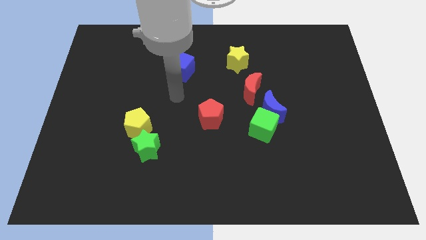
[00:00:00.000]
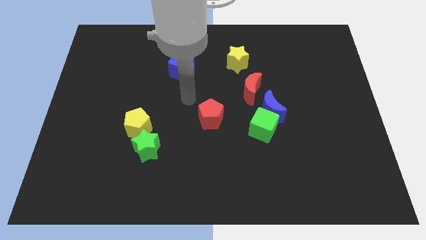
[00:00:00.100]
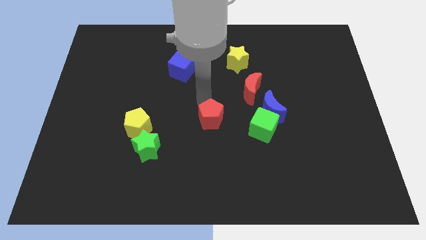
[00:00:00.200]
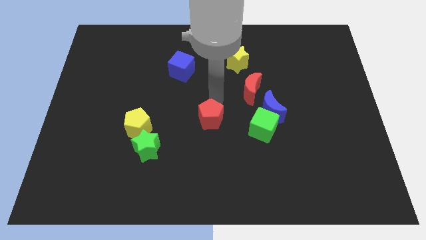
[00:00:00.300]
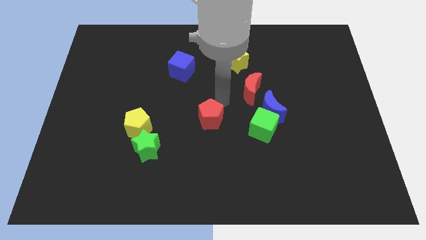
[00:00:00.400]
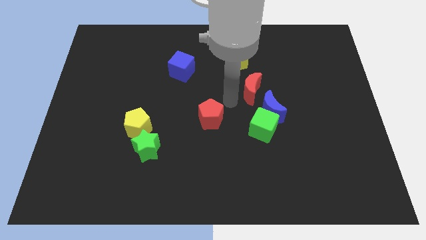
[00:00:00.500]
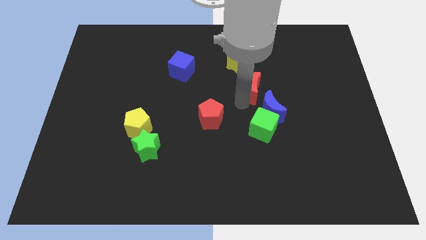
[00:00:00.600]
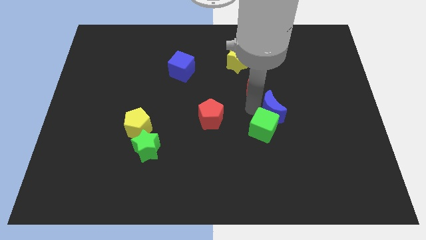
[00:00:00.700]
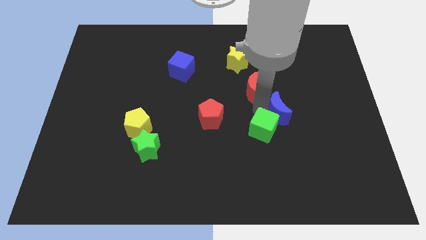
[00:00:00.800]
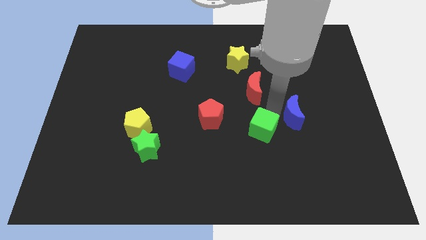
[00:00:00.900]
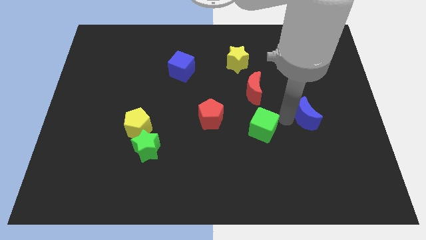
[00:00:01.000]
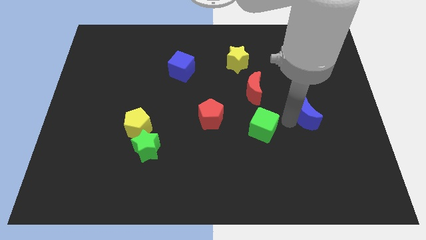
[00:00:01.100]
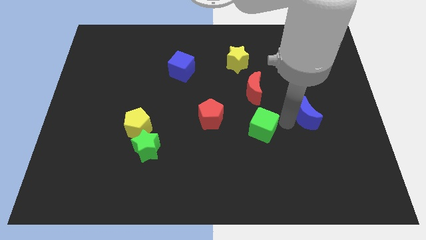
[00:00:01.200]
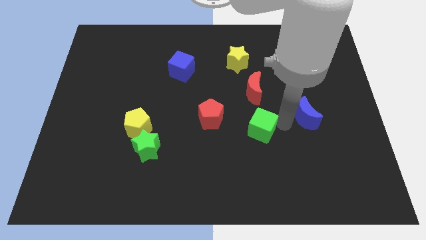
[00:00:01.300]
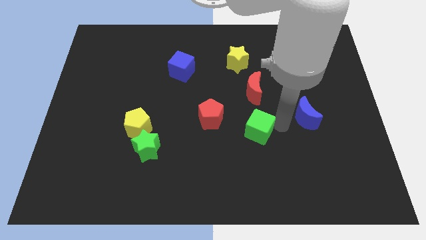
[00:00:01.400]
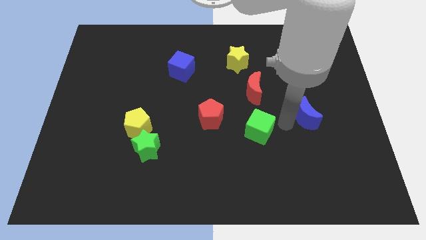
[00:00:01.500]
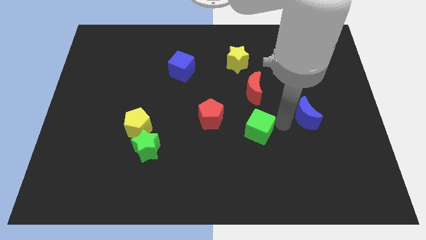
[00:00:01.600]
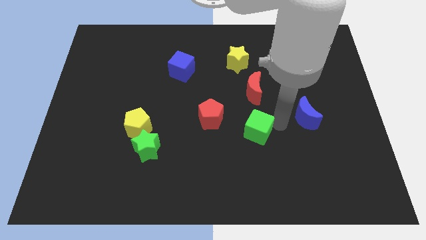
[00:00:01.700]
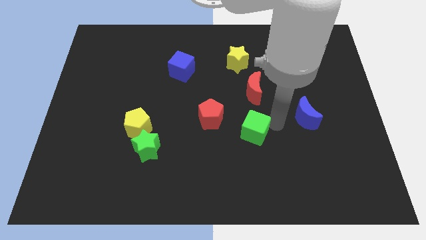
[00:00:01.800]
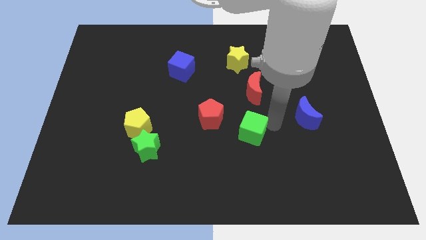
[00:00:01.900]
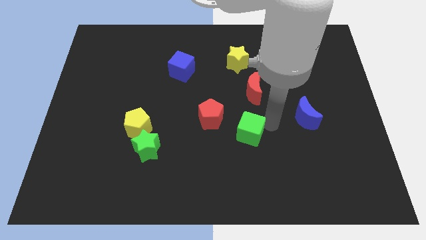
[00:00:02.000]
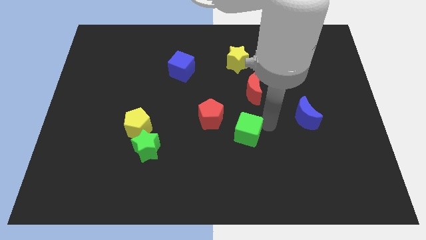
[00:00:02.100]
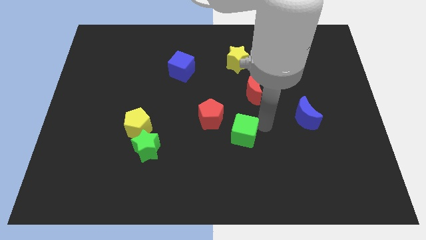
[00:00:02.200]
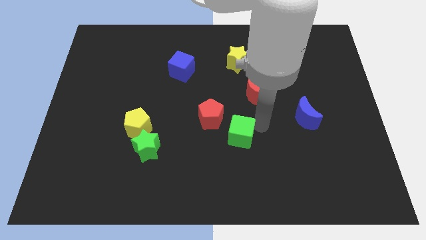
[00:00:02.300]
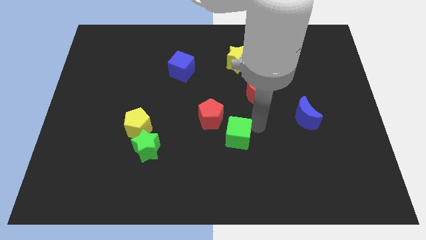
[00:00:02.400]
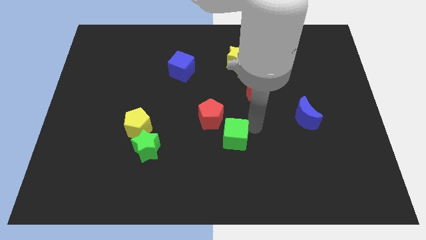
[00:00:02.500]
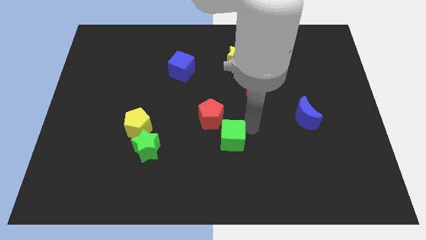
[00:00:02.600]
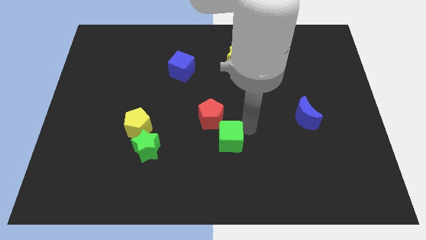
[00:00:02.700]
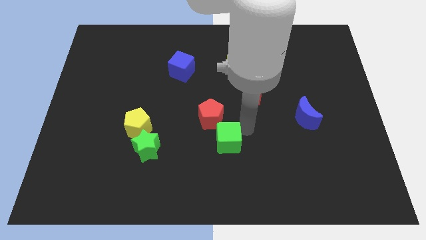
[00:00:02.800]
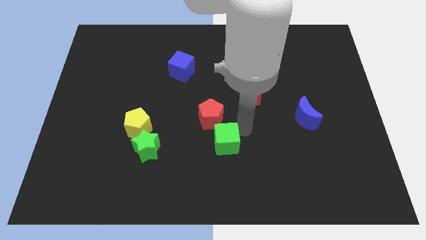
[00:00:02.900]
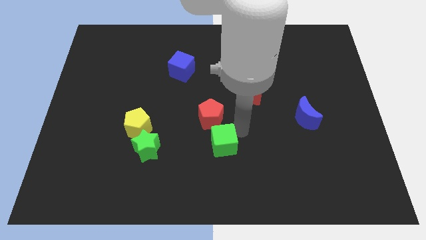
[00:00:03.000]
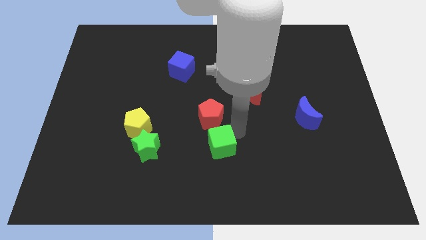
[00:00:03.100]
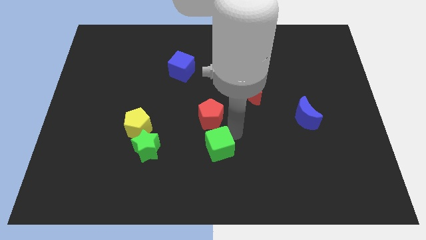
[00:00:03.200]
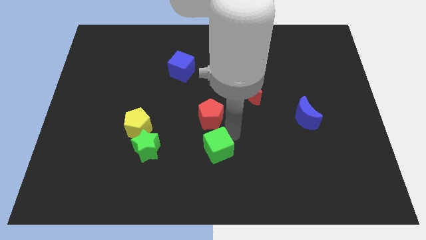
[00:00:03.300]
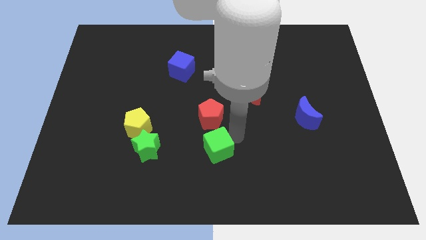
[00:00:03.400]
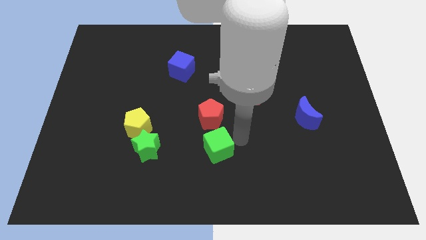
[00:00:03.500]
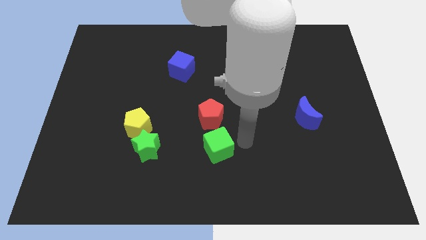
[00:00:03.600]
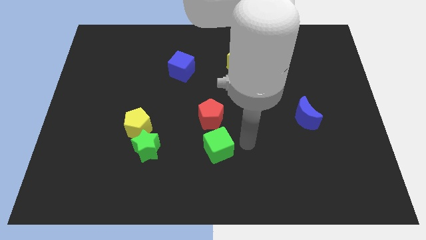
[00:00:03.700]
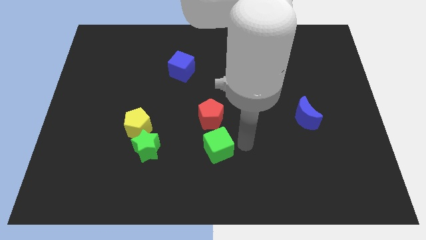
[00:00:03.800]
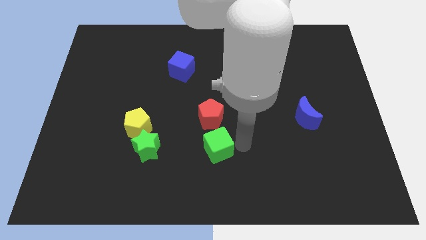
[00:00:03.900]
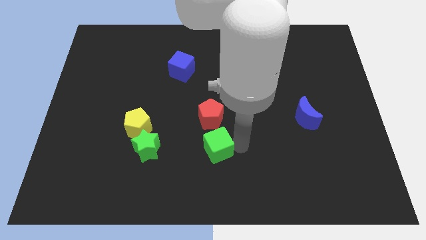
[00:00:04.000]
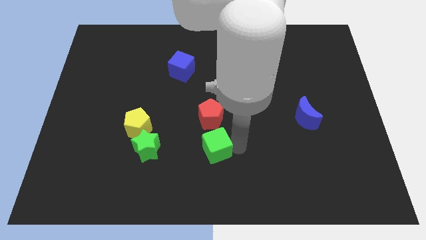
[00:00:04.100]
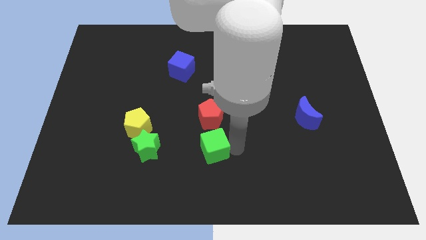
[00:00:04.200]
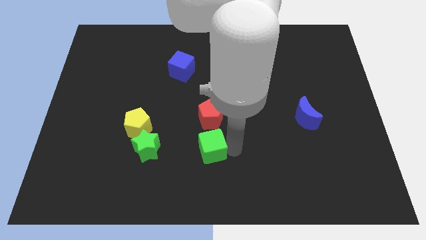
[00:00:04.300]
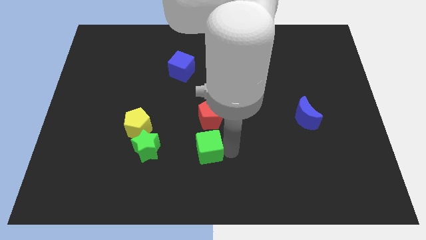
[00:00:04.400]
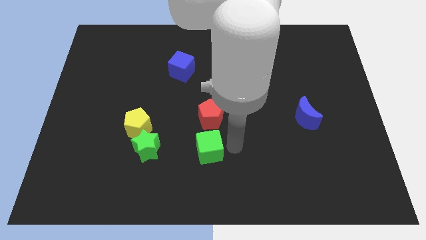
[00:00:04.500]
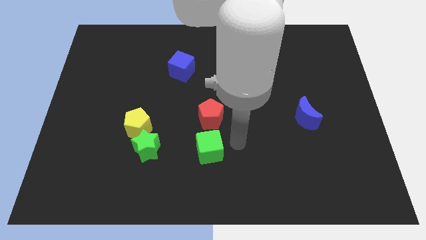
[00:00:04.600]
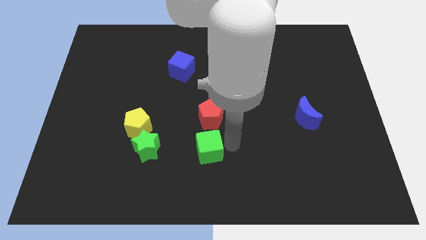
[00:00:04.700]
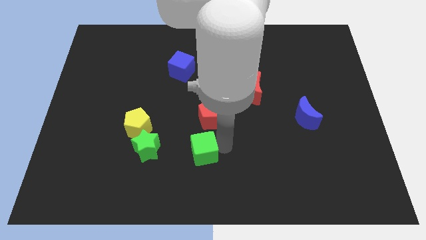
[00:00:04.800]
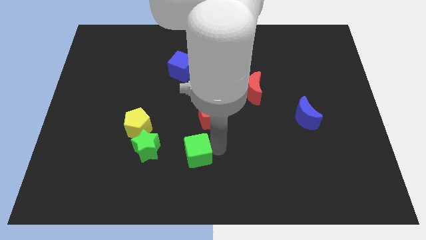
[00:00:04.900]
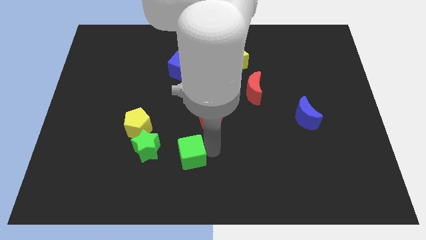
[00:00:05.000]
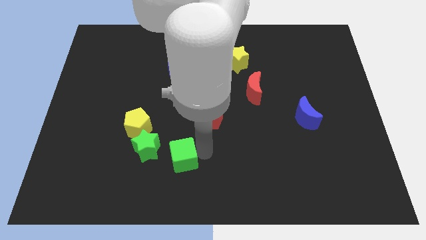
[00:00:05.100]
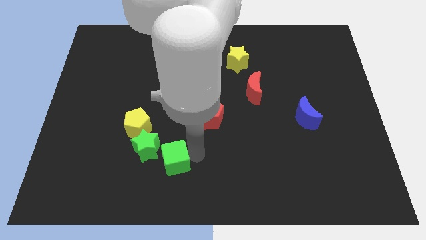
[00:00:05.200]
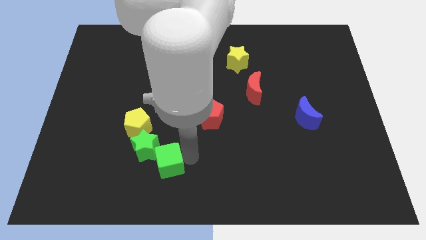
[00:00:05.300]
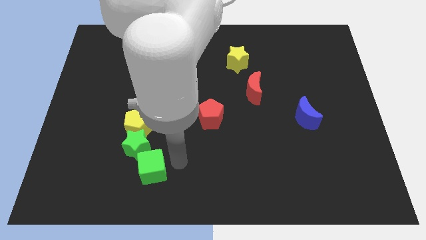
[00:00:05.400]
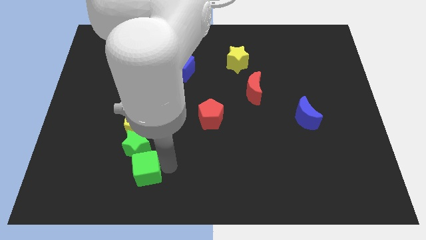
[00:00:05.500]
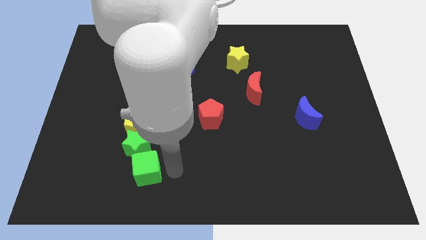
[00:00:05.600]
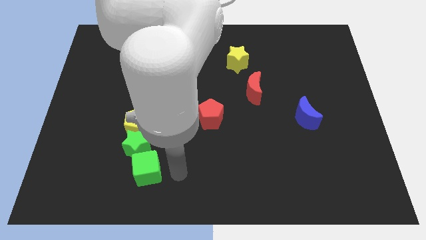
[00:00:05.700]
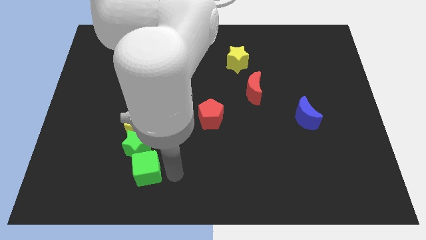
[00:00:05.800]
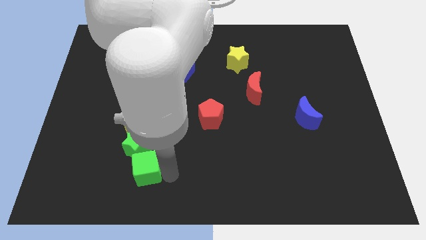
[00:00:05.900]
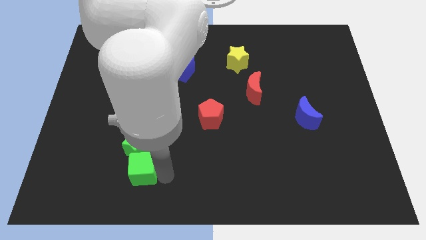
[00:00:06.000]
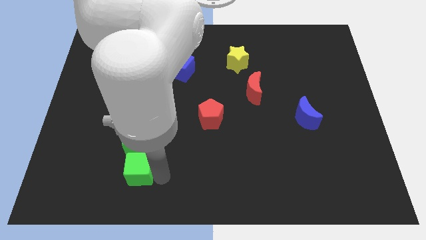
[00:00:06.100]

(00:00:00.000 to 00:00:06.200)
push the green cube diagonally down and to the left of the green star

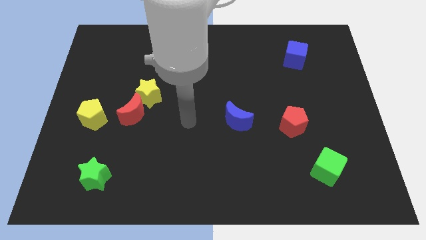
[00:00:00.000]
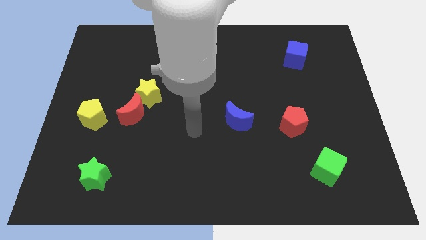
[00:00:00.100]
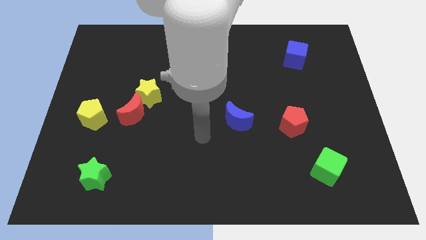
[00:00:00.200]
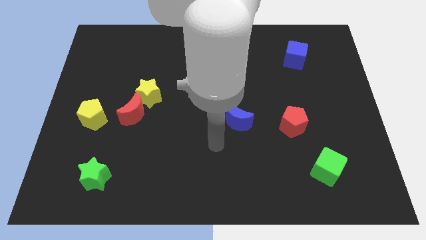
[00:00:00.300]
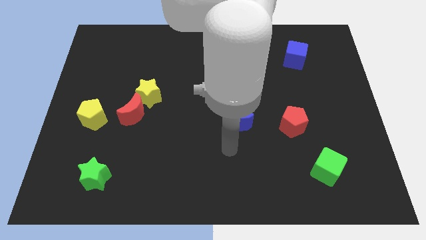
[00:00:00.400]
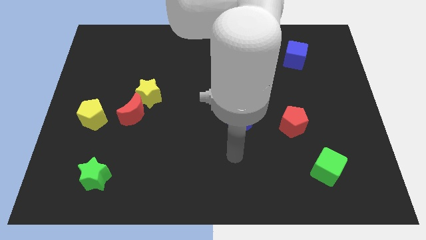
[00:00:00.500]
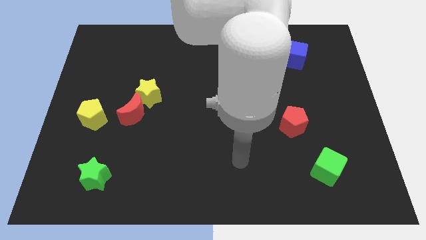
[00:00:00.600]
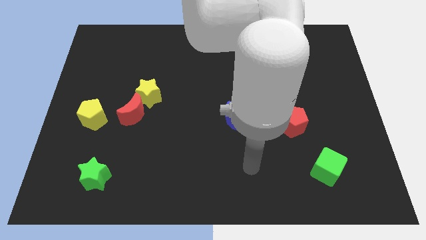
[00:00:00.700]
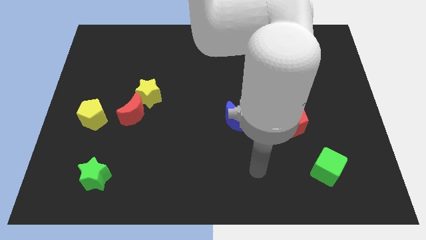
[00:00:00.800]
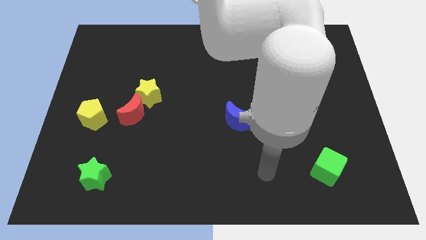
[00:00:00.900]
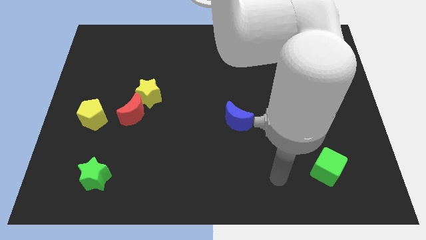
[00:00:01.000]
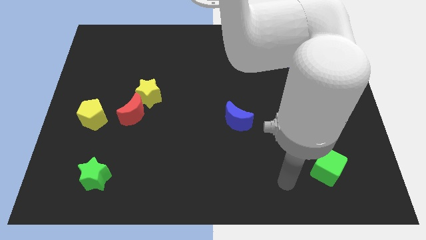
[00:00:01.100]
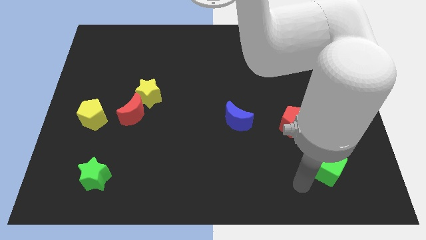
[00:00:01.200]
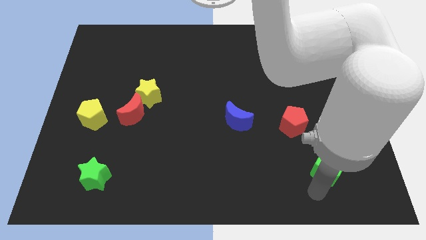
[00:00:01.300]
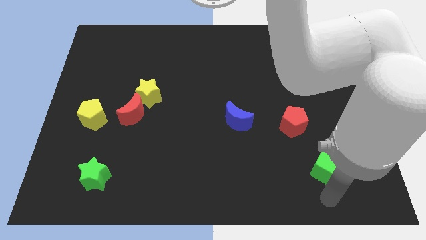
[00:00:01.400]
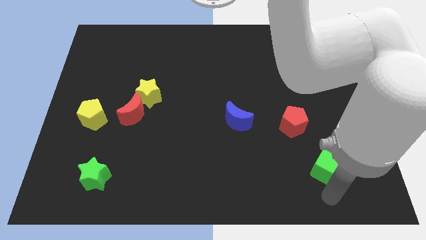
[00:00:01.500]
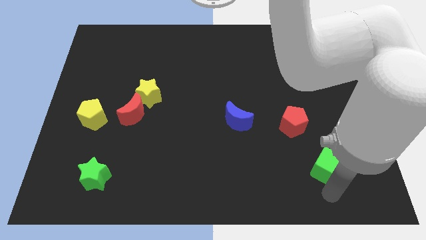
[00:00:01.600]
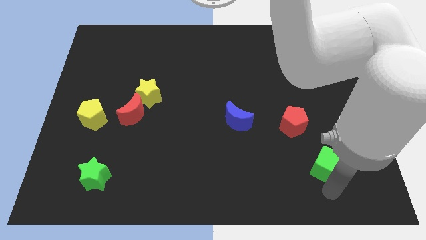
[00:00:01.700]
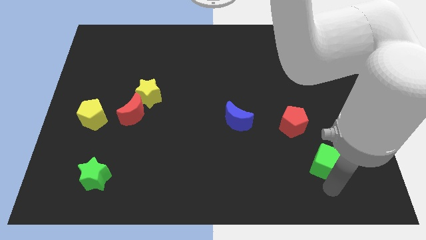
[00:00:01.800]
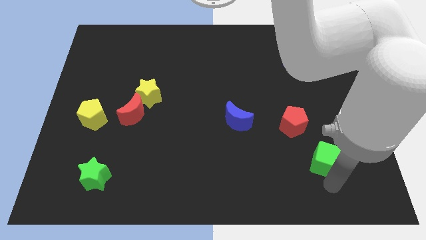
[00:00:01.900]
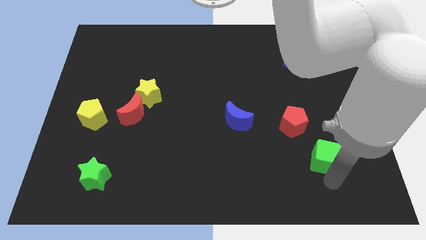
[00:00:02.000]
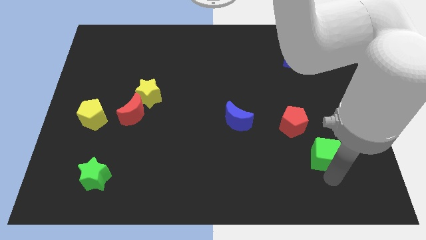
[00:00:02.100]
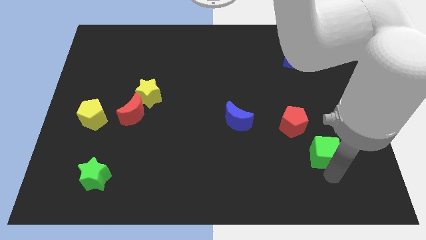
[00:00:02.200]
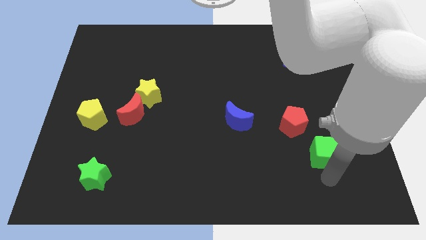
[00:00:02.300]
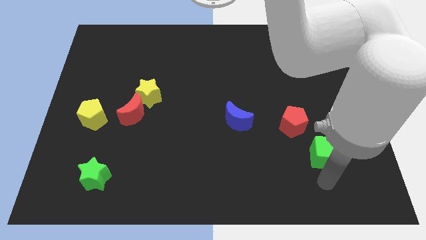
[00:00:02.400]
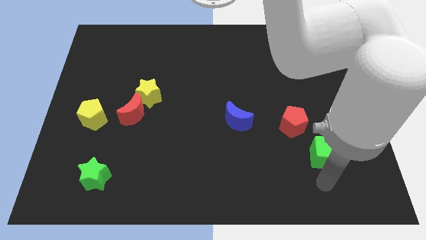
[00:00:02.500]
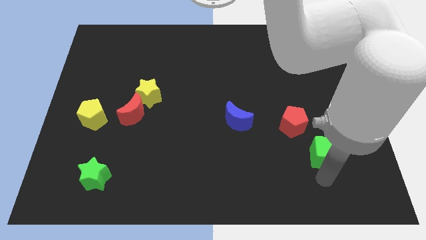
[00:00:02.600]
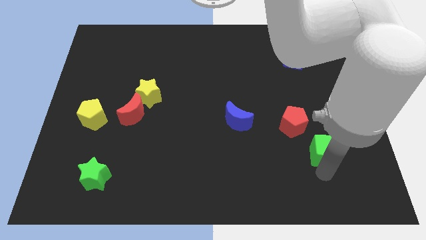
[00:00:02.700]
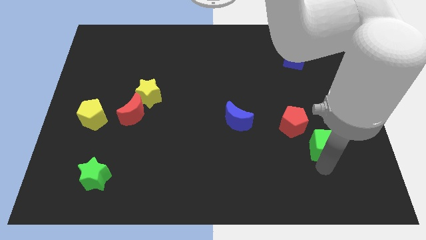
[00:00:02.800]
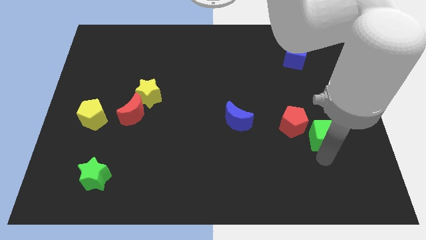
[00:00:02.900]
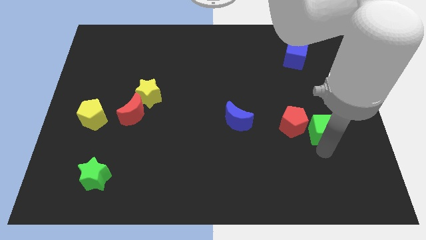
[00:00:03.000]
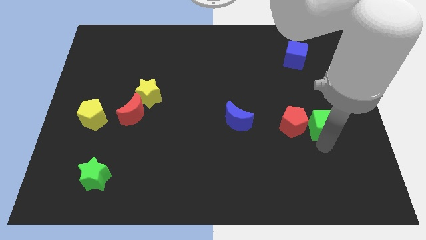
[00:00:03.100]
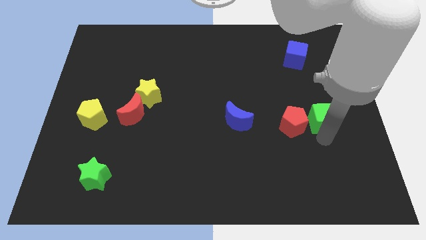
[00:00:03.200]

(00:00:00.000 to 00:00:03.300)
push the green cube diagonally up and to the right of the red pentagon
